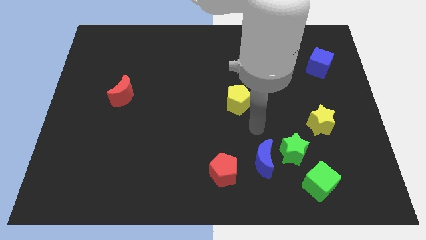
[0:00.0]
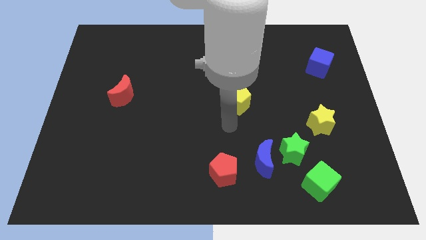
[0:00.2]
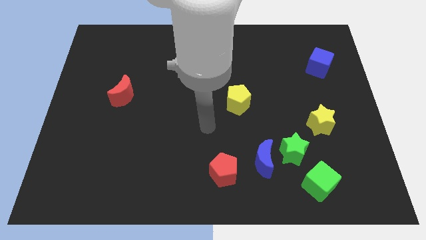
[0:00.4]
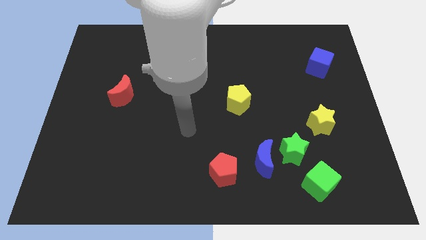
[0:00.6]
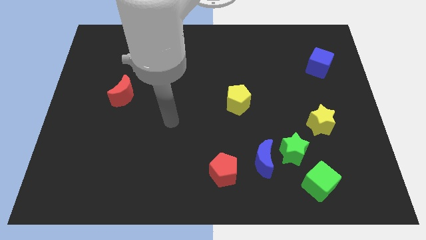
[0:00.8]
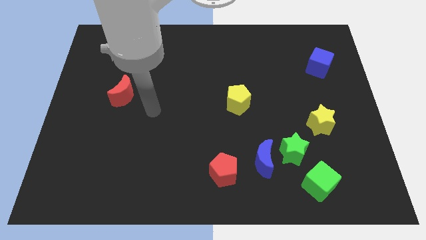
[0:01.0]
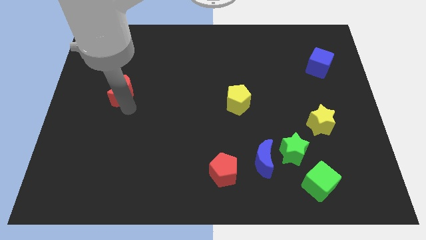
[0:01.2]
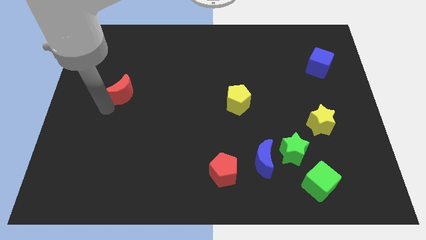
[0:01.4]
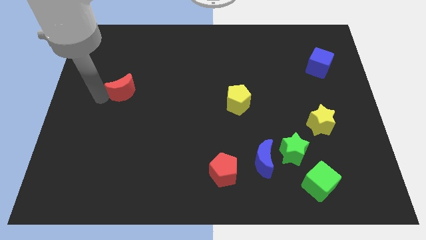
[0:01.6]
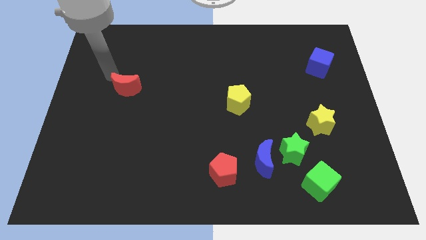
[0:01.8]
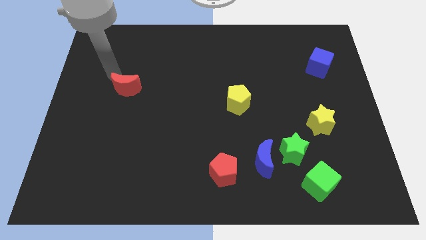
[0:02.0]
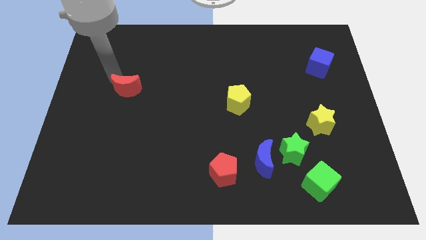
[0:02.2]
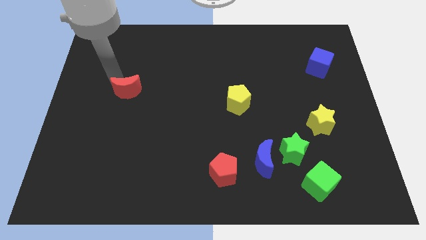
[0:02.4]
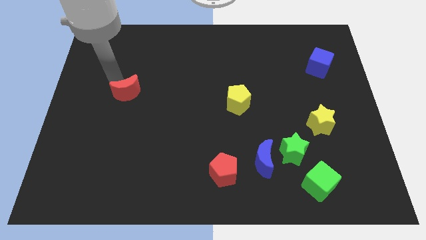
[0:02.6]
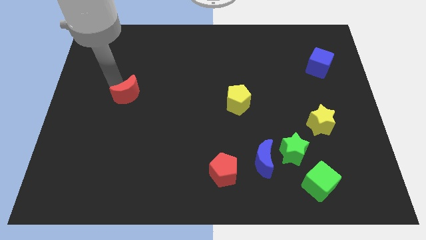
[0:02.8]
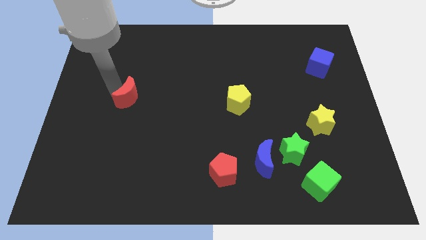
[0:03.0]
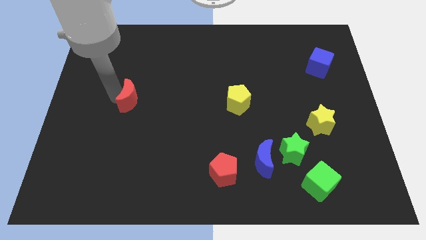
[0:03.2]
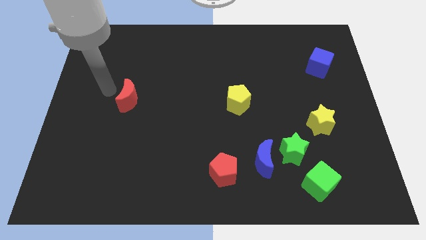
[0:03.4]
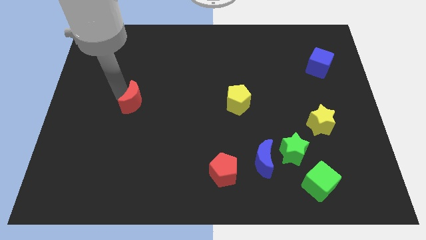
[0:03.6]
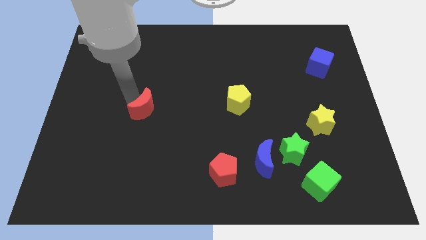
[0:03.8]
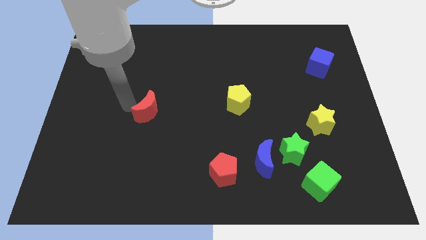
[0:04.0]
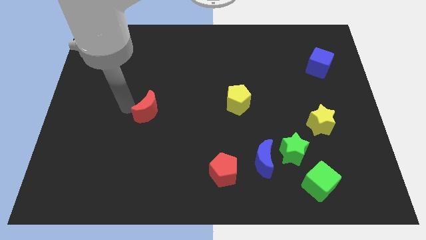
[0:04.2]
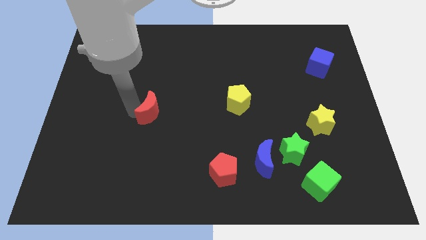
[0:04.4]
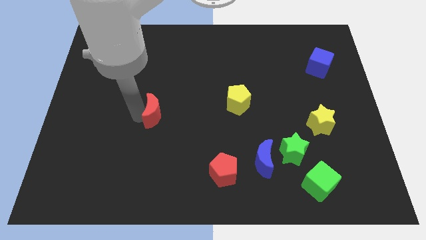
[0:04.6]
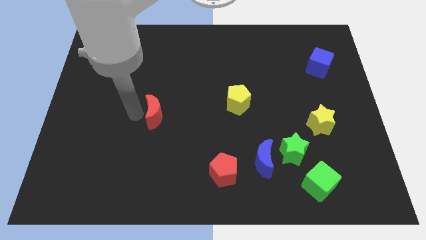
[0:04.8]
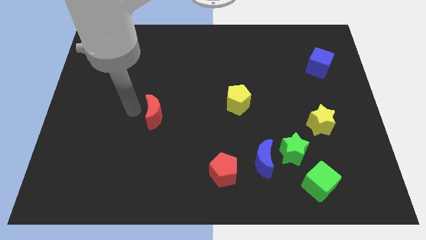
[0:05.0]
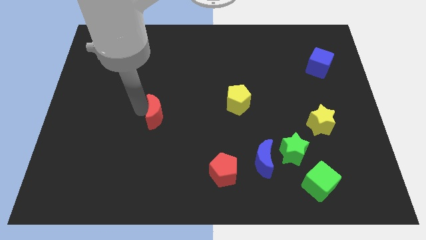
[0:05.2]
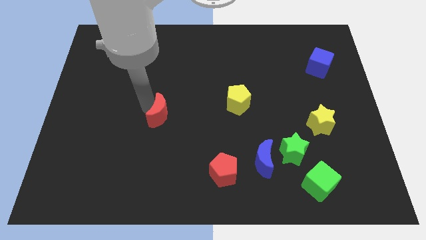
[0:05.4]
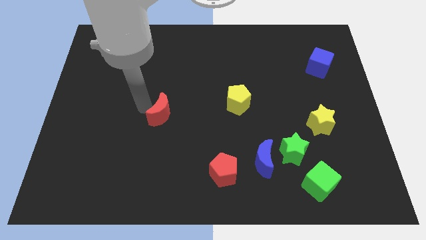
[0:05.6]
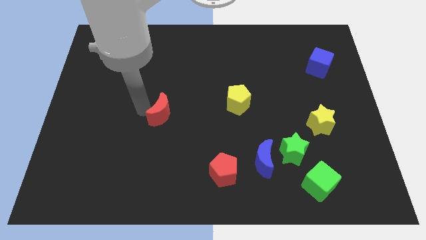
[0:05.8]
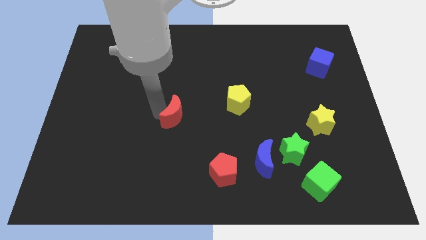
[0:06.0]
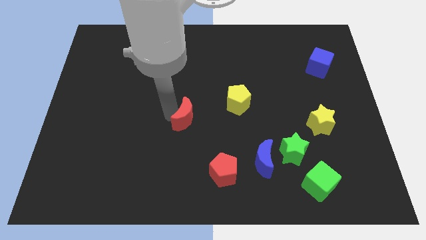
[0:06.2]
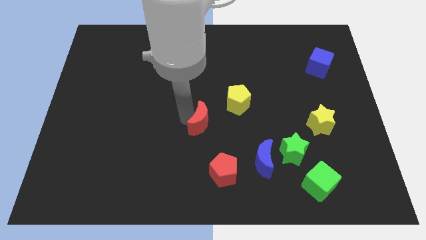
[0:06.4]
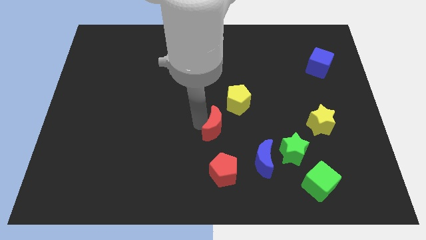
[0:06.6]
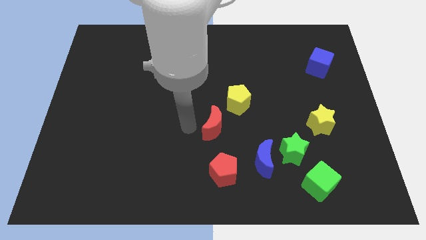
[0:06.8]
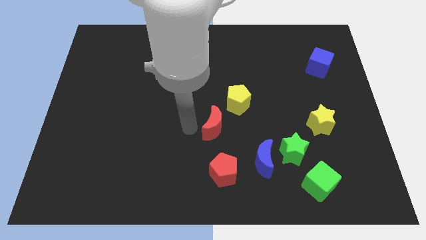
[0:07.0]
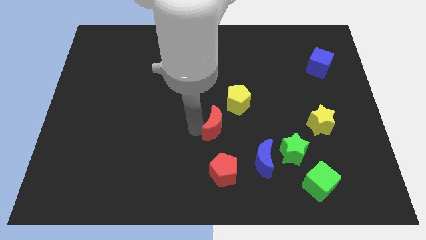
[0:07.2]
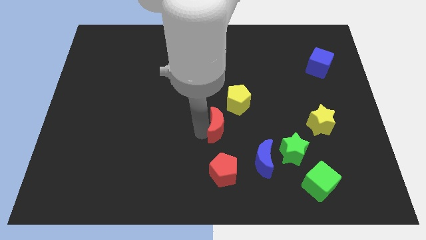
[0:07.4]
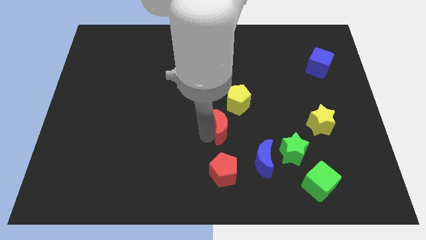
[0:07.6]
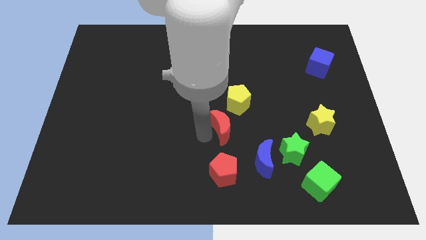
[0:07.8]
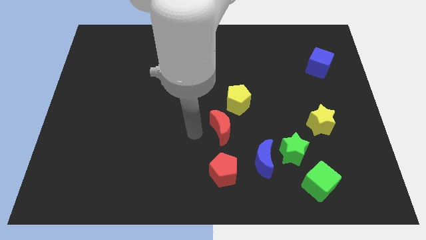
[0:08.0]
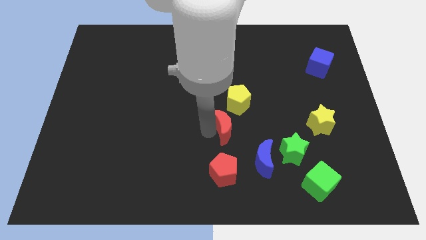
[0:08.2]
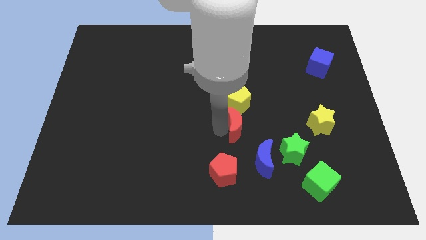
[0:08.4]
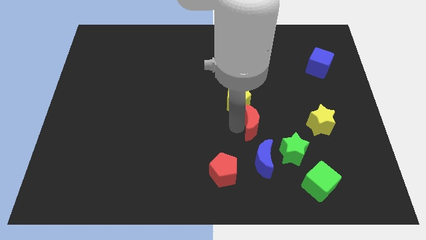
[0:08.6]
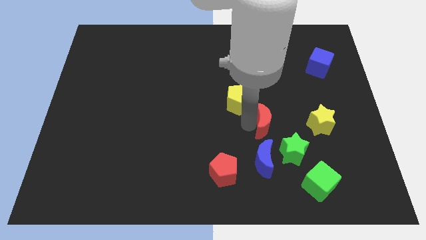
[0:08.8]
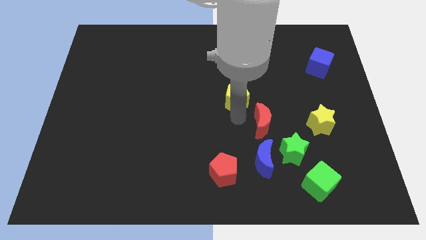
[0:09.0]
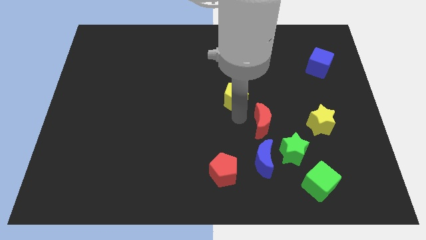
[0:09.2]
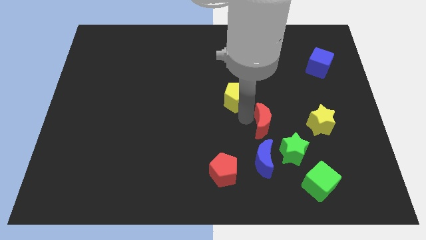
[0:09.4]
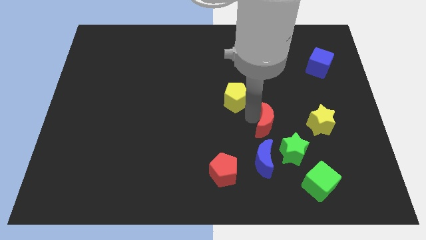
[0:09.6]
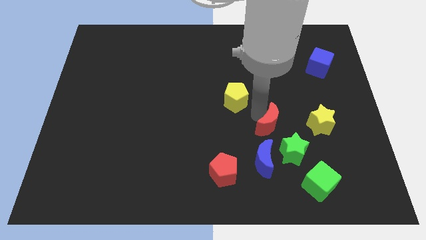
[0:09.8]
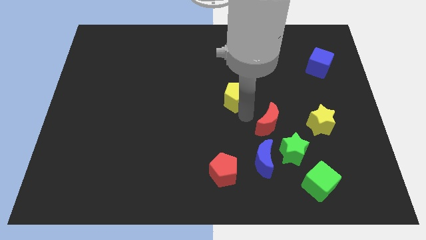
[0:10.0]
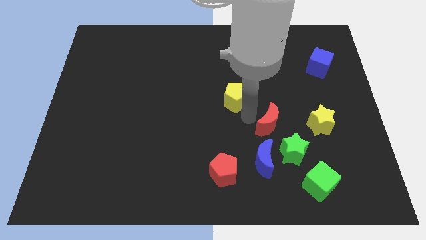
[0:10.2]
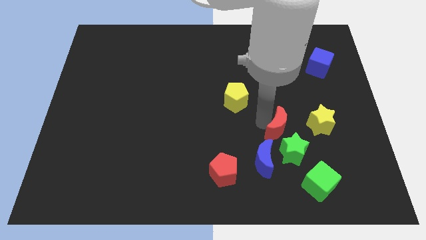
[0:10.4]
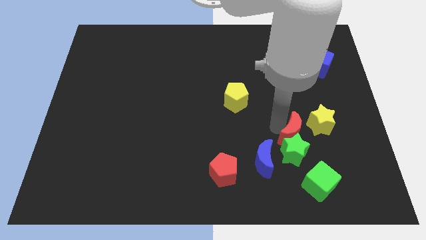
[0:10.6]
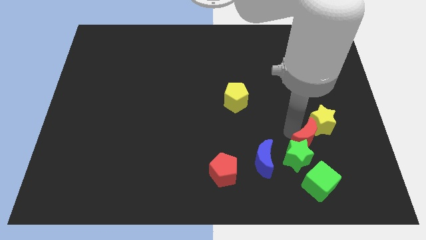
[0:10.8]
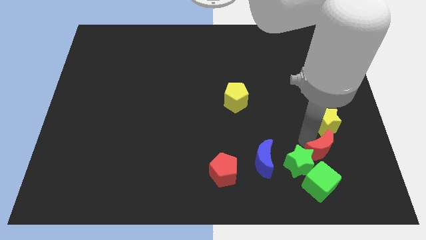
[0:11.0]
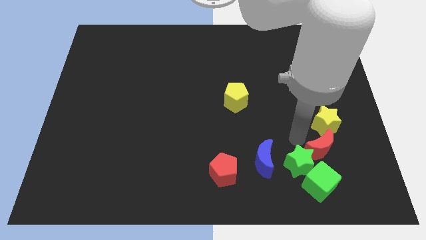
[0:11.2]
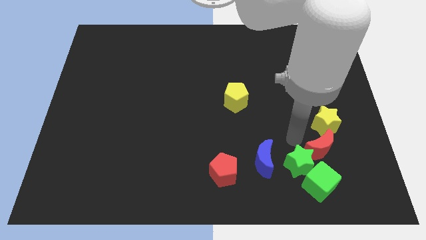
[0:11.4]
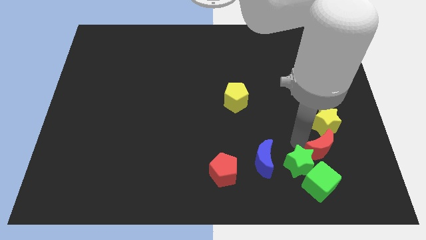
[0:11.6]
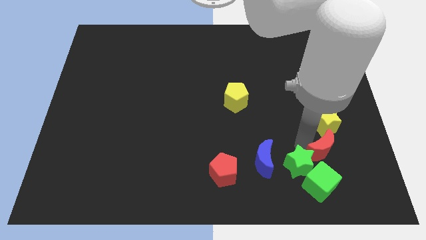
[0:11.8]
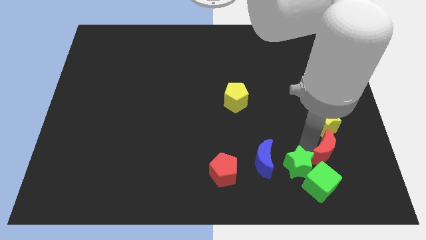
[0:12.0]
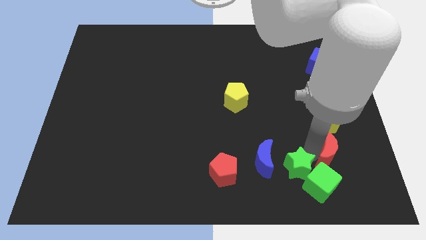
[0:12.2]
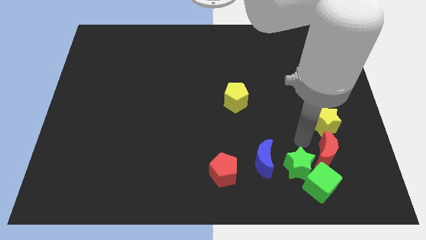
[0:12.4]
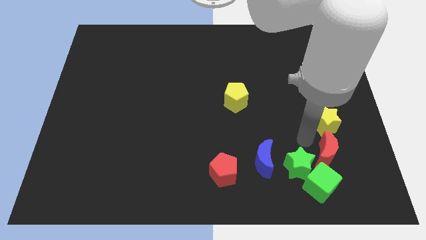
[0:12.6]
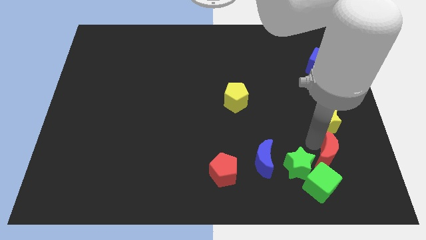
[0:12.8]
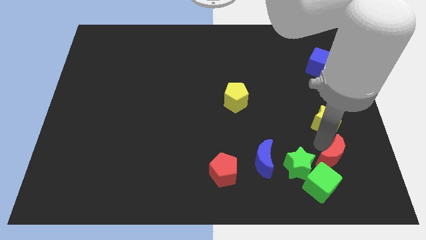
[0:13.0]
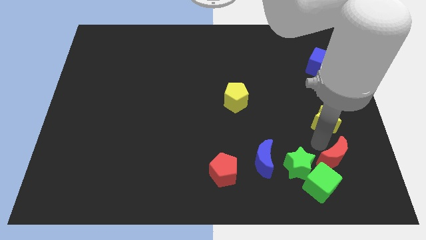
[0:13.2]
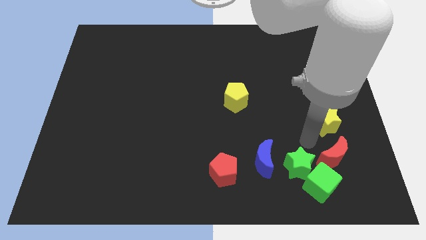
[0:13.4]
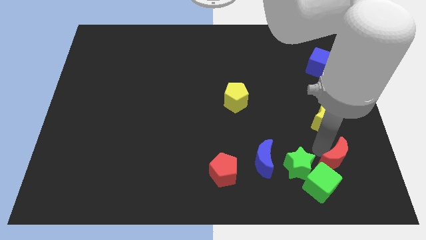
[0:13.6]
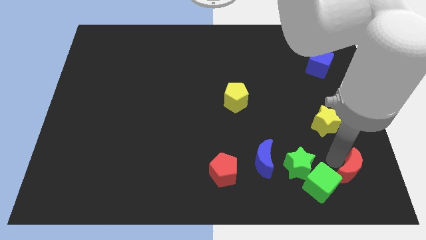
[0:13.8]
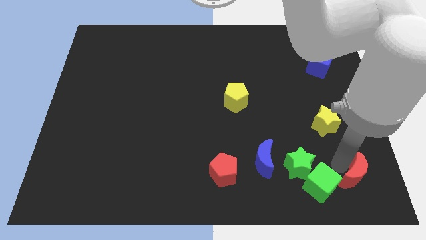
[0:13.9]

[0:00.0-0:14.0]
slide the red moon to the bottom right corner
